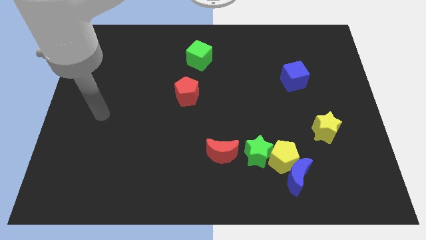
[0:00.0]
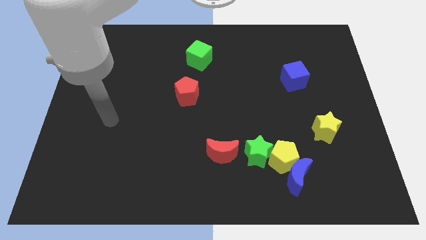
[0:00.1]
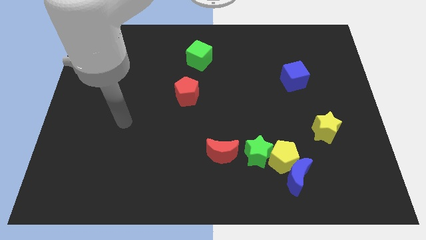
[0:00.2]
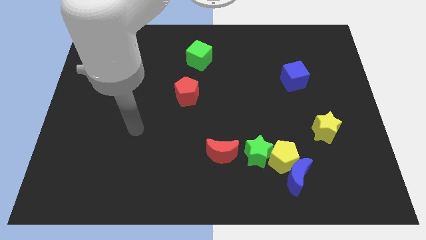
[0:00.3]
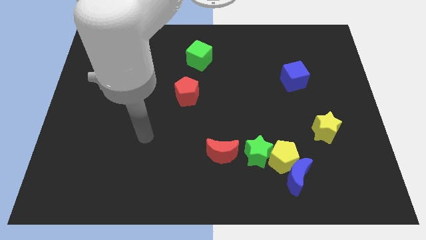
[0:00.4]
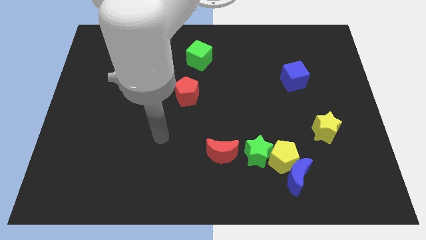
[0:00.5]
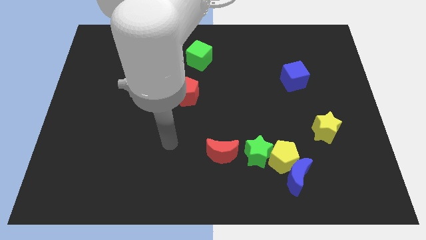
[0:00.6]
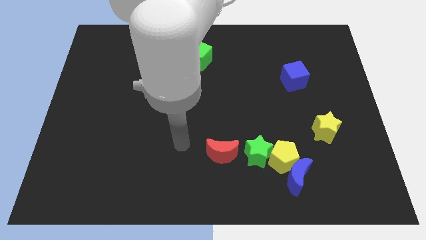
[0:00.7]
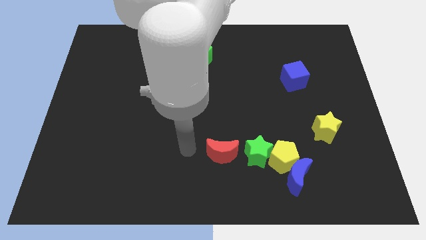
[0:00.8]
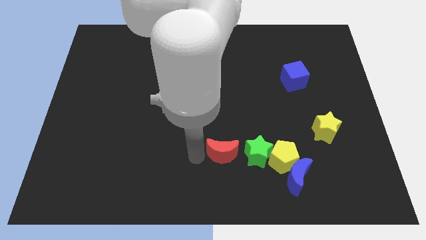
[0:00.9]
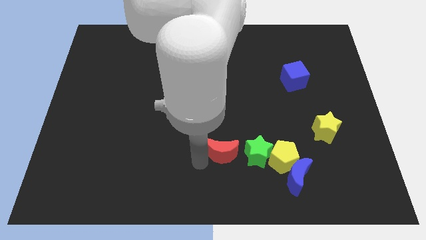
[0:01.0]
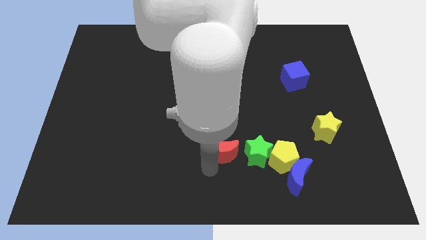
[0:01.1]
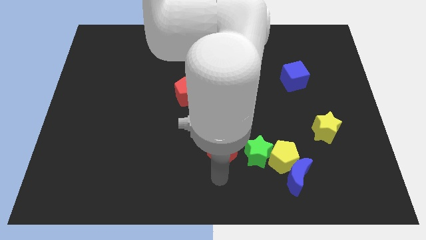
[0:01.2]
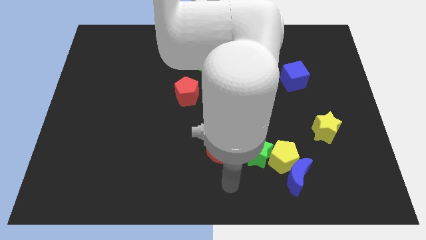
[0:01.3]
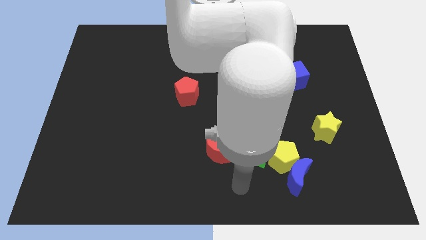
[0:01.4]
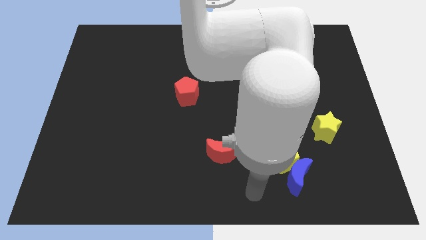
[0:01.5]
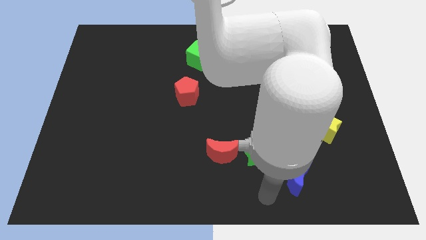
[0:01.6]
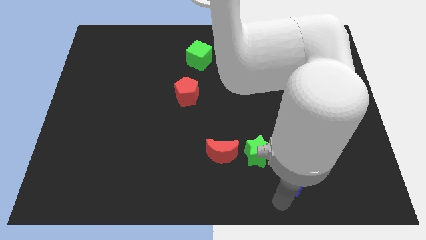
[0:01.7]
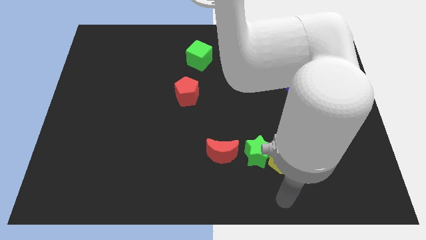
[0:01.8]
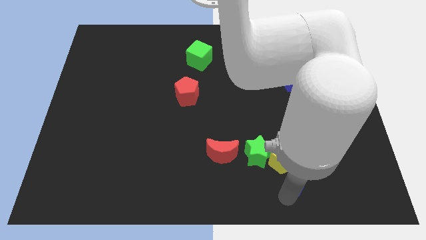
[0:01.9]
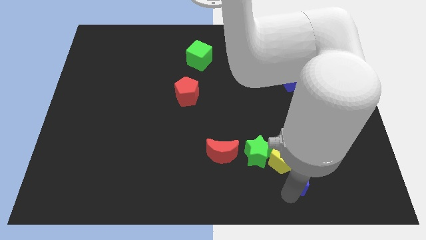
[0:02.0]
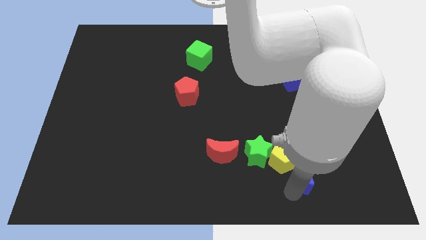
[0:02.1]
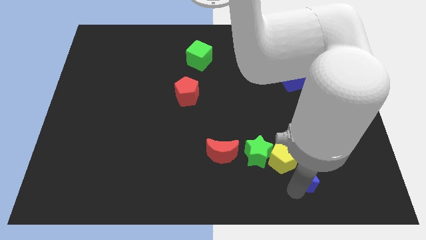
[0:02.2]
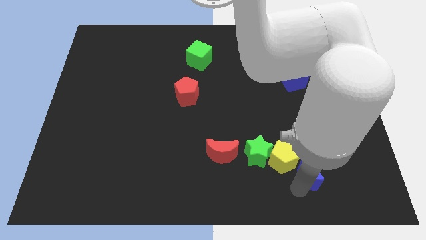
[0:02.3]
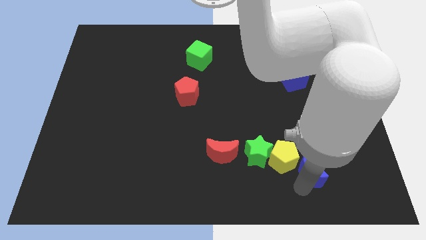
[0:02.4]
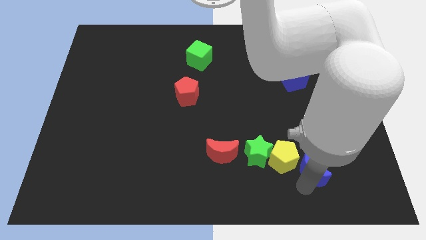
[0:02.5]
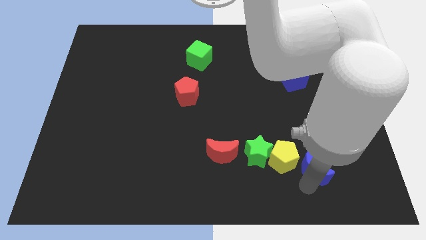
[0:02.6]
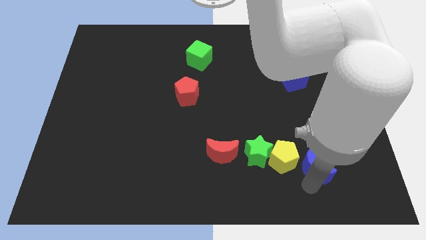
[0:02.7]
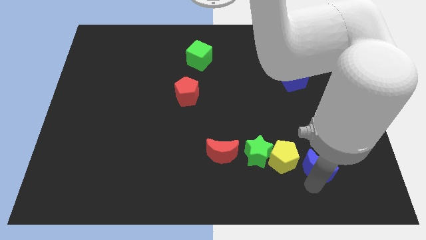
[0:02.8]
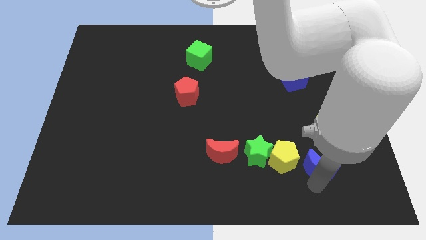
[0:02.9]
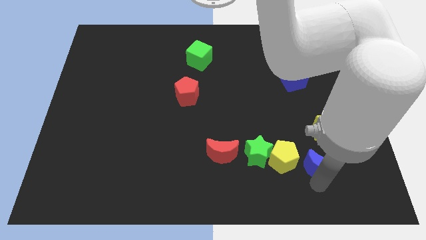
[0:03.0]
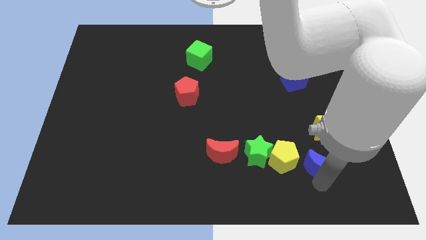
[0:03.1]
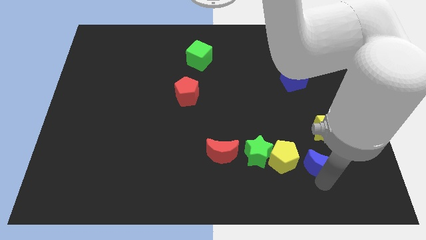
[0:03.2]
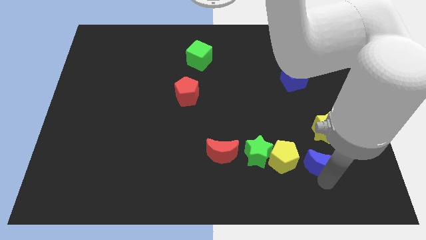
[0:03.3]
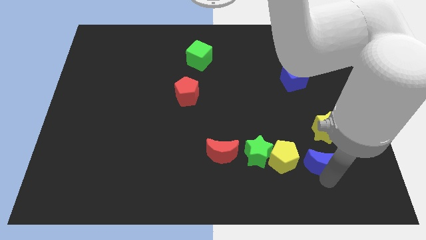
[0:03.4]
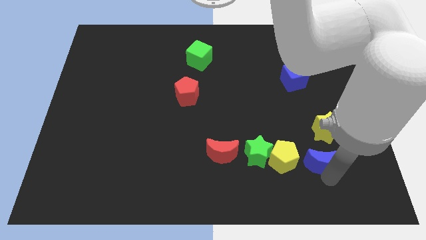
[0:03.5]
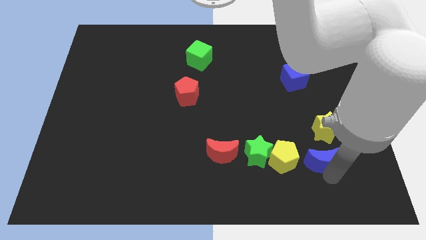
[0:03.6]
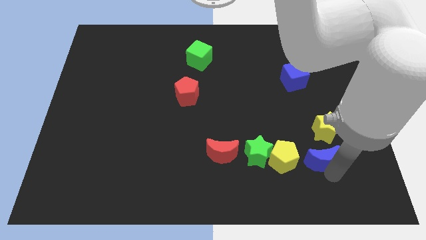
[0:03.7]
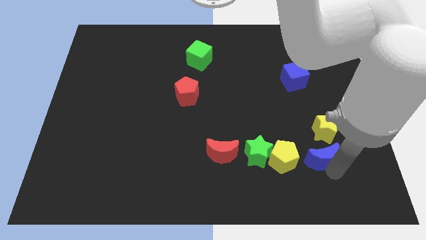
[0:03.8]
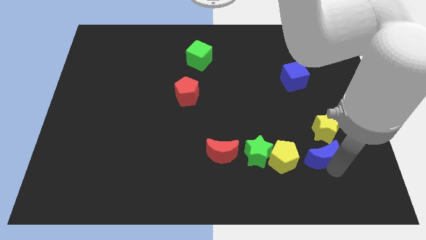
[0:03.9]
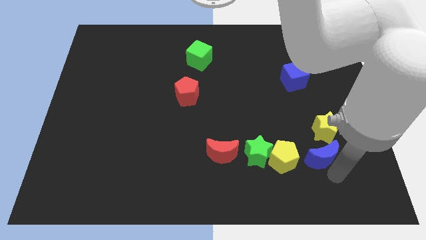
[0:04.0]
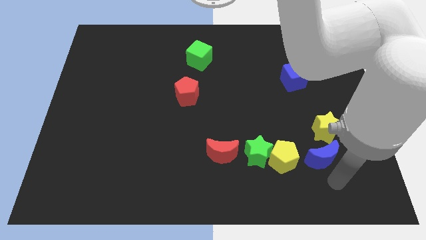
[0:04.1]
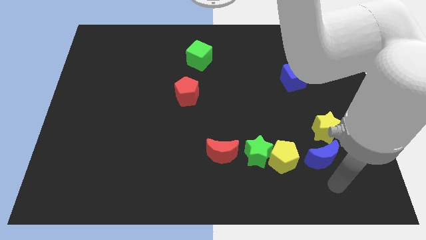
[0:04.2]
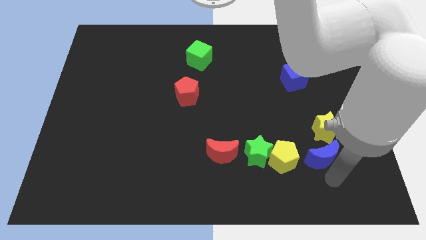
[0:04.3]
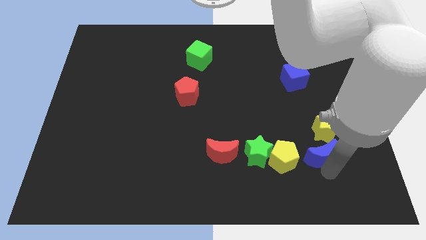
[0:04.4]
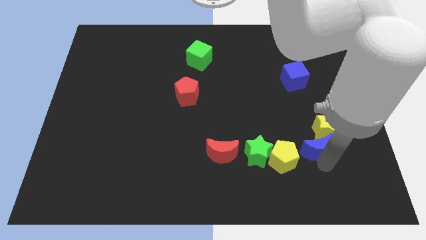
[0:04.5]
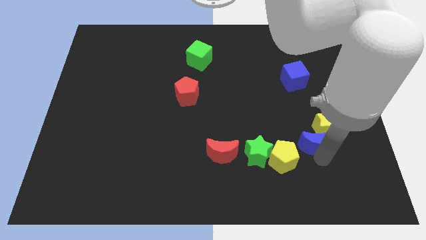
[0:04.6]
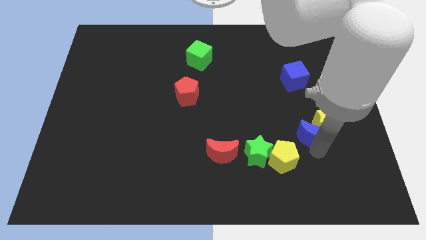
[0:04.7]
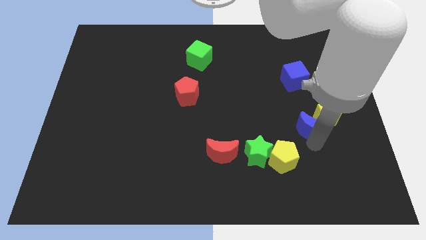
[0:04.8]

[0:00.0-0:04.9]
move the blue moon to the bottom side of the blue cube

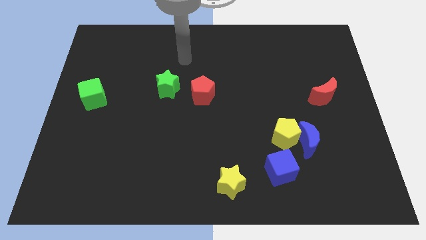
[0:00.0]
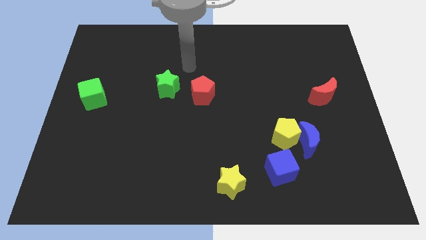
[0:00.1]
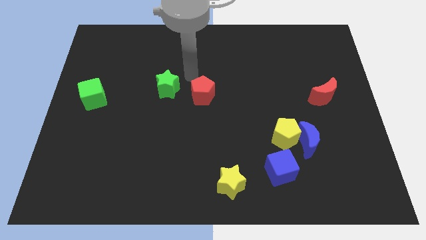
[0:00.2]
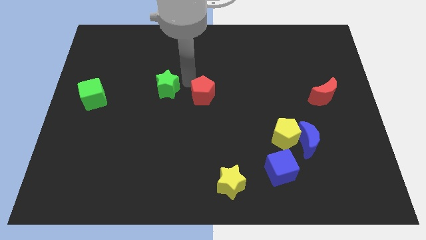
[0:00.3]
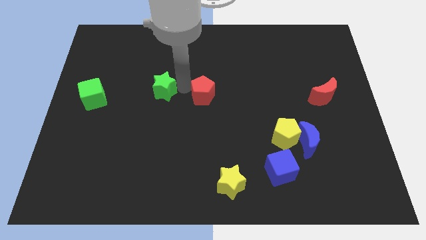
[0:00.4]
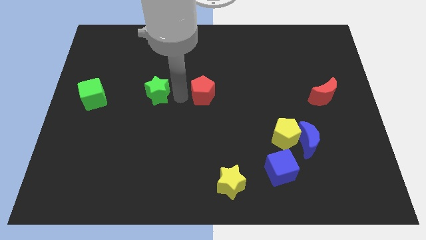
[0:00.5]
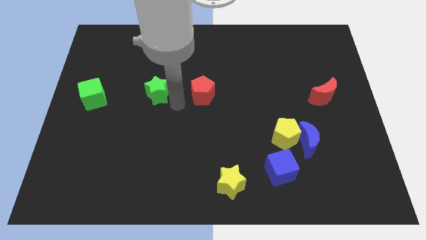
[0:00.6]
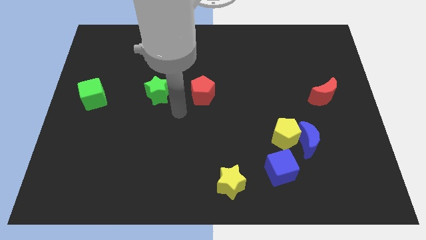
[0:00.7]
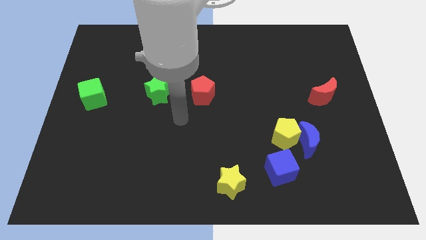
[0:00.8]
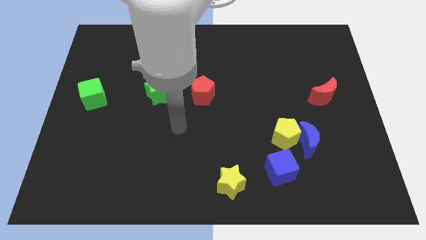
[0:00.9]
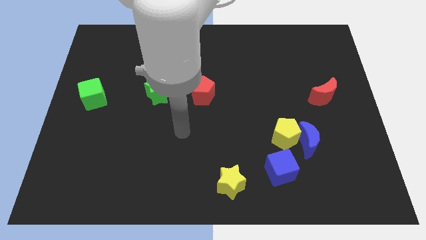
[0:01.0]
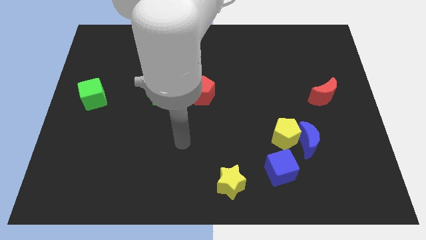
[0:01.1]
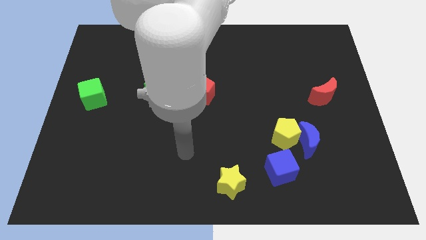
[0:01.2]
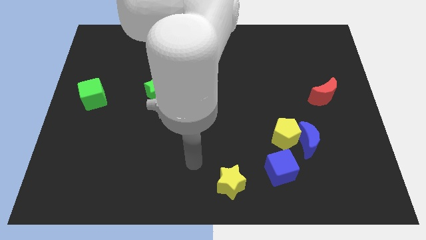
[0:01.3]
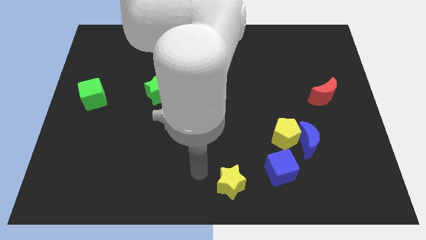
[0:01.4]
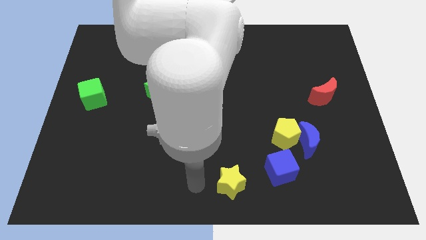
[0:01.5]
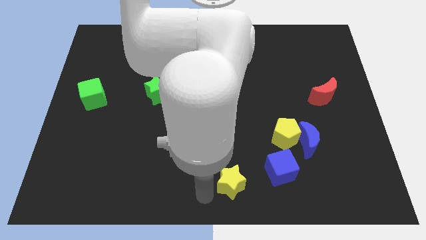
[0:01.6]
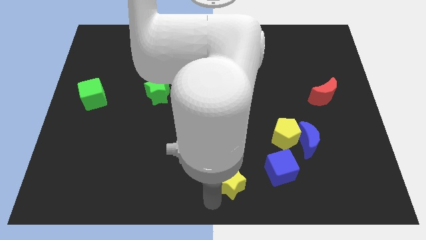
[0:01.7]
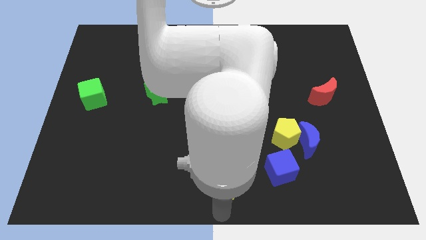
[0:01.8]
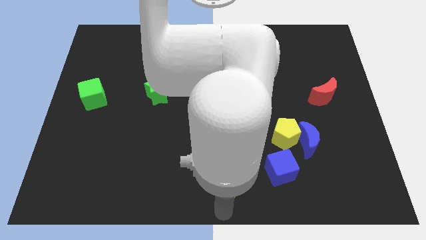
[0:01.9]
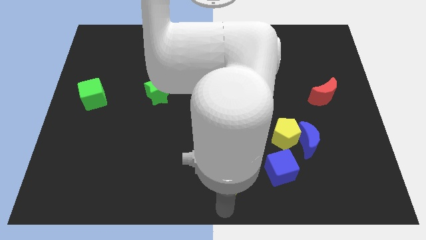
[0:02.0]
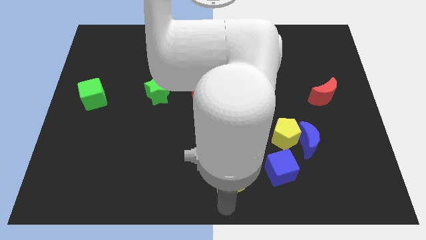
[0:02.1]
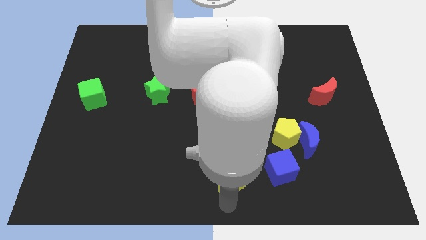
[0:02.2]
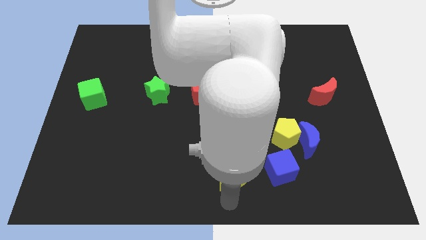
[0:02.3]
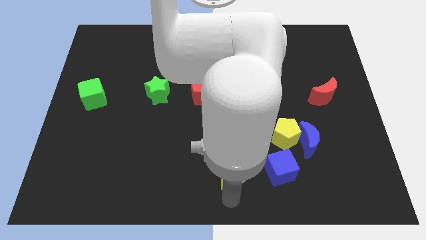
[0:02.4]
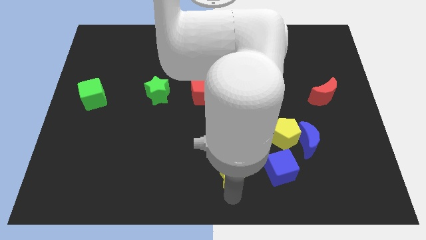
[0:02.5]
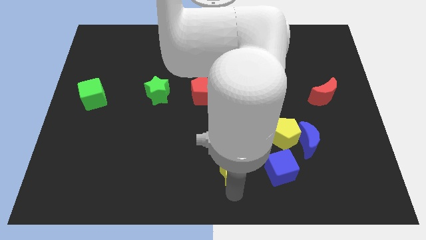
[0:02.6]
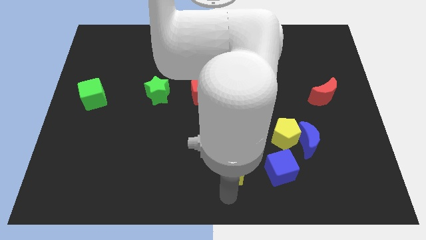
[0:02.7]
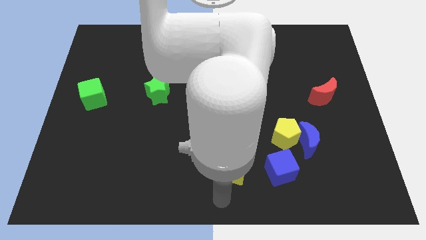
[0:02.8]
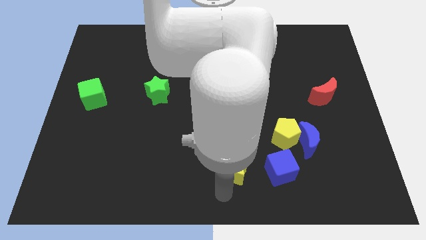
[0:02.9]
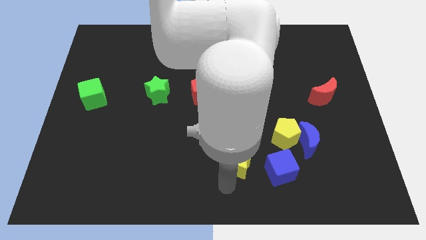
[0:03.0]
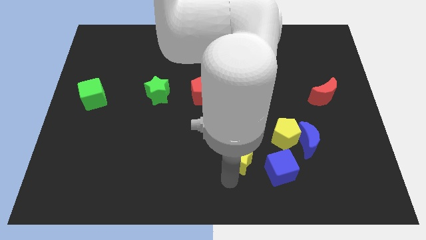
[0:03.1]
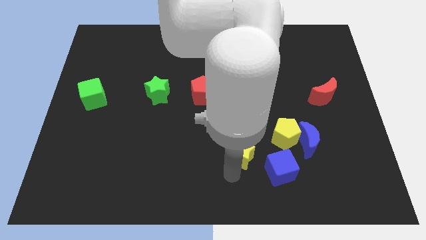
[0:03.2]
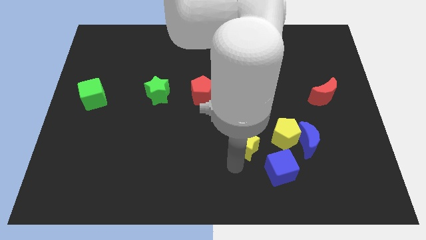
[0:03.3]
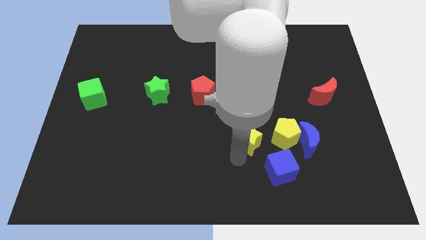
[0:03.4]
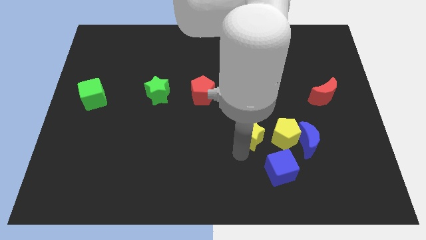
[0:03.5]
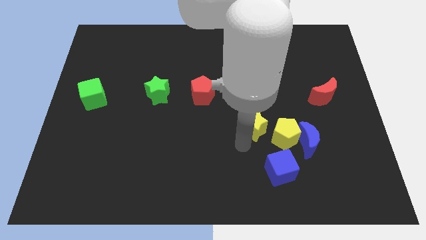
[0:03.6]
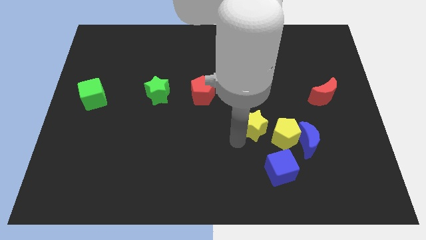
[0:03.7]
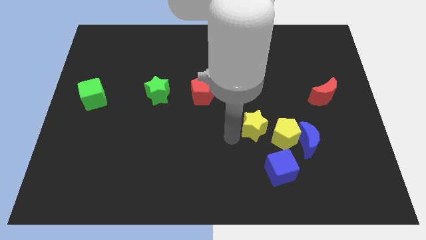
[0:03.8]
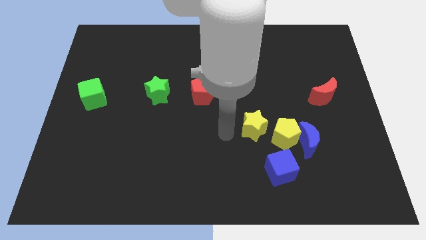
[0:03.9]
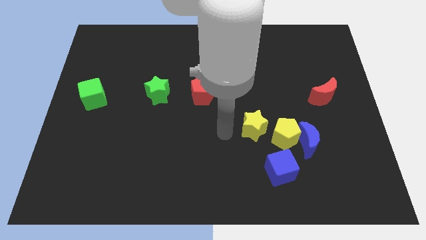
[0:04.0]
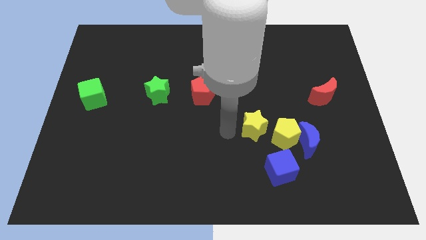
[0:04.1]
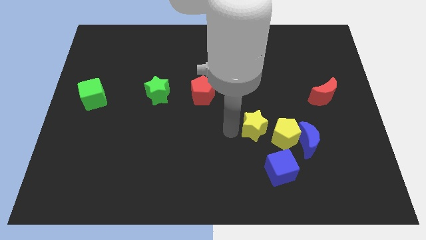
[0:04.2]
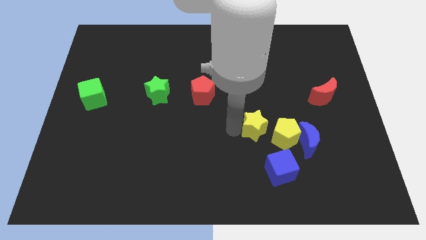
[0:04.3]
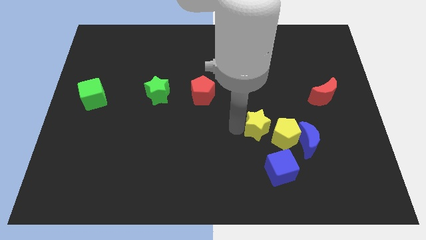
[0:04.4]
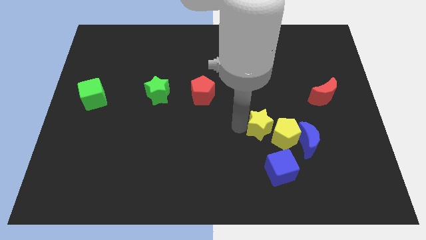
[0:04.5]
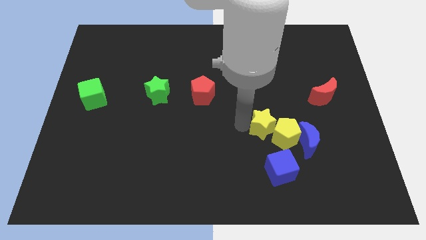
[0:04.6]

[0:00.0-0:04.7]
slide the yellow star to the top left side of the blue moon
